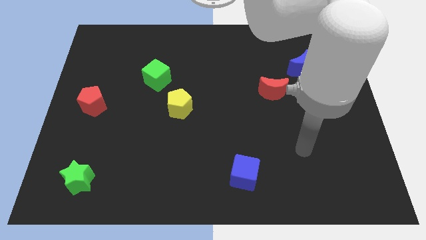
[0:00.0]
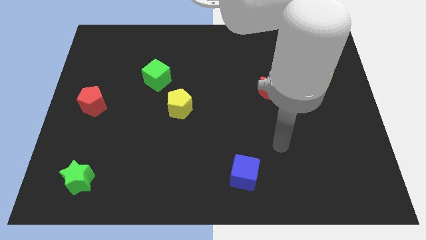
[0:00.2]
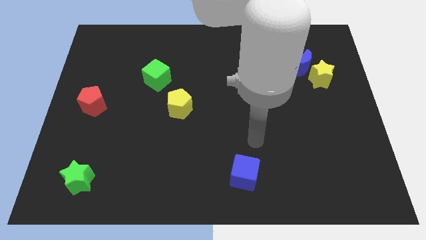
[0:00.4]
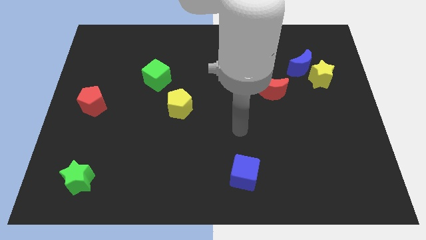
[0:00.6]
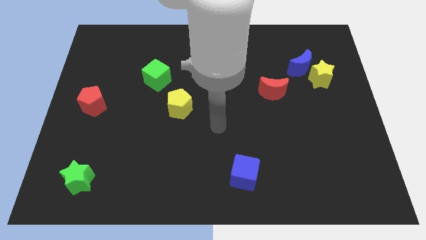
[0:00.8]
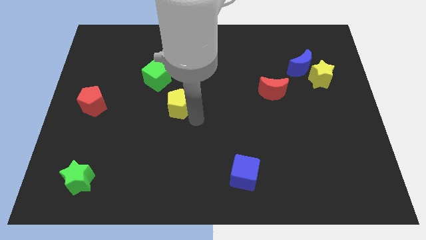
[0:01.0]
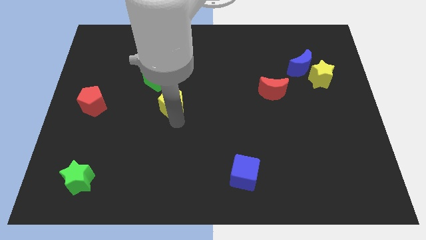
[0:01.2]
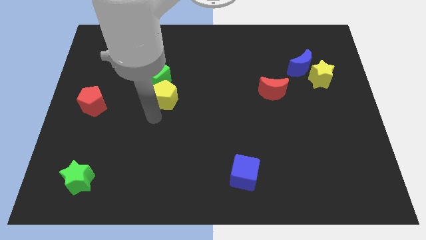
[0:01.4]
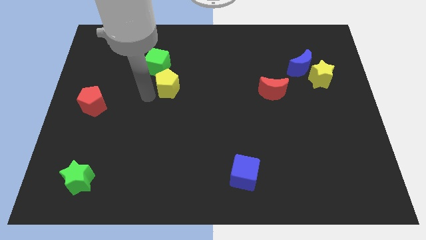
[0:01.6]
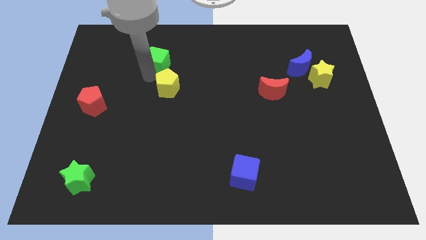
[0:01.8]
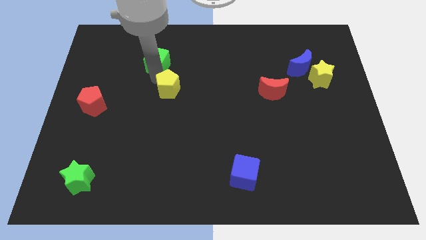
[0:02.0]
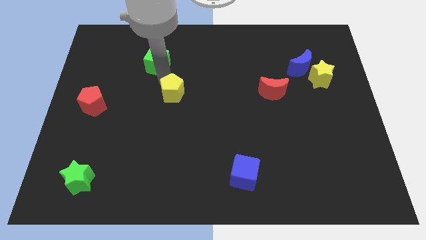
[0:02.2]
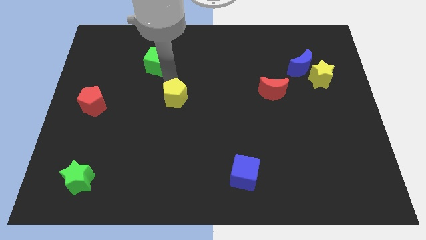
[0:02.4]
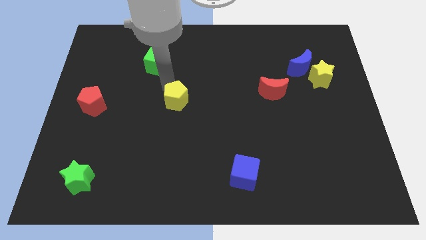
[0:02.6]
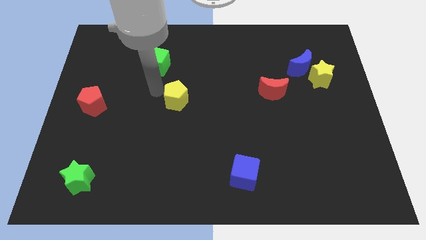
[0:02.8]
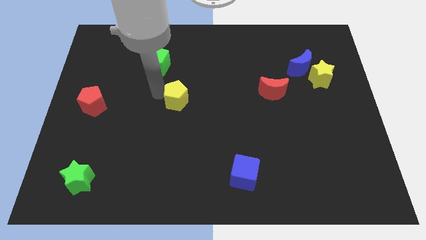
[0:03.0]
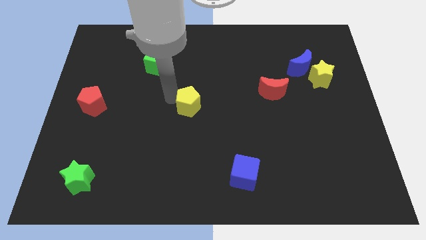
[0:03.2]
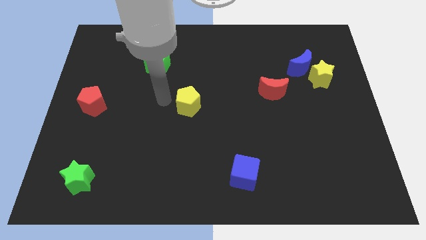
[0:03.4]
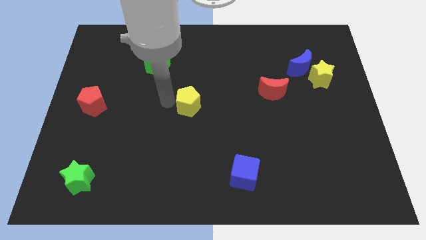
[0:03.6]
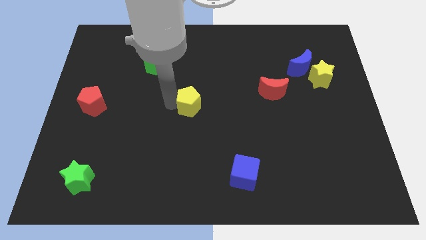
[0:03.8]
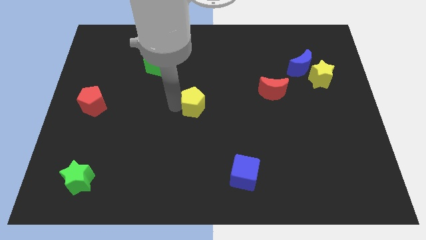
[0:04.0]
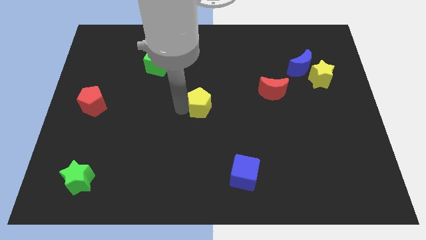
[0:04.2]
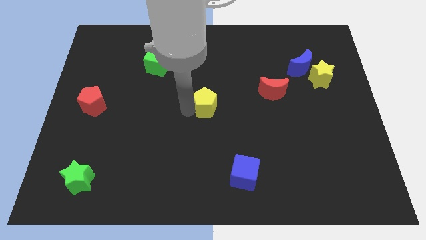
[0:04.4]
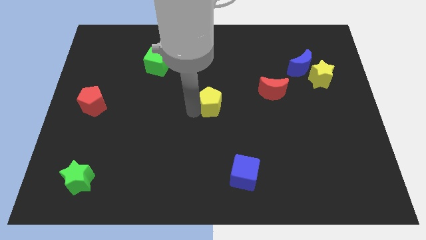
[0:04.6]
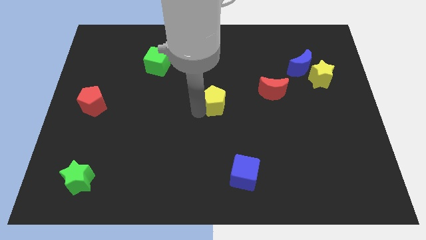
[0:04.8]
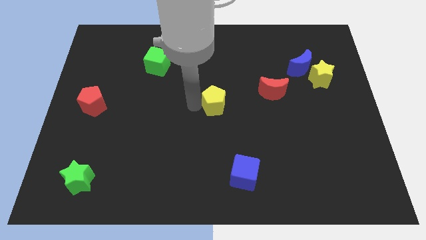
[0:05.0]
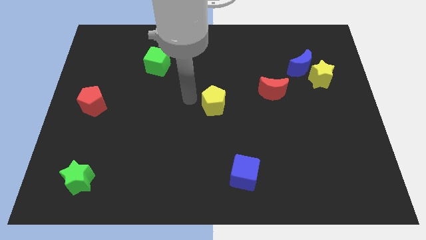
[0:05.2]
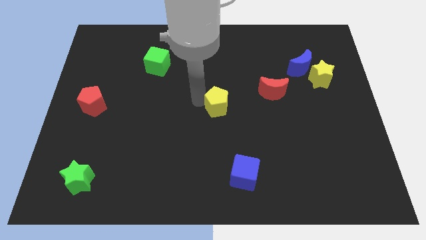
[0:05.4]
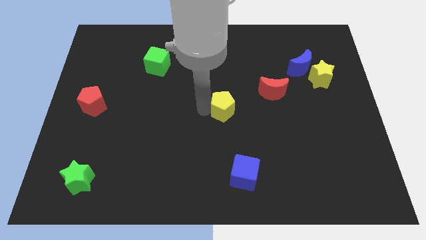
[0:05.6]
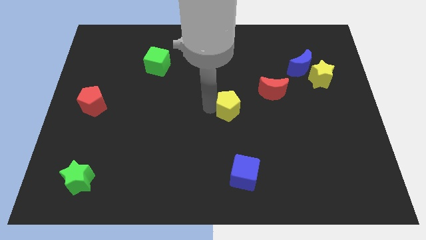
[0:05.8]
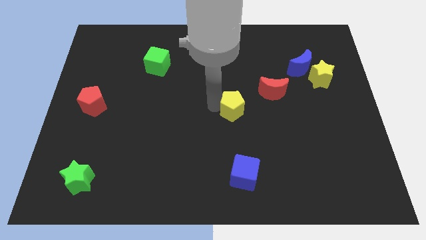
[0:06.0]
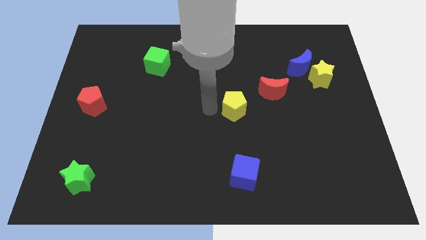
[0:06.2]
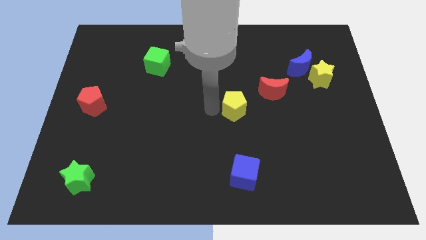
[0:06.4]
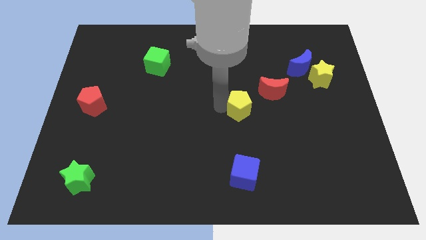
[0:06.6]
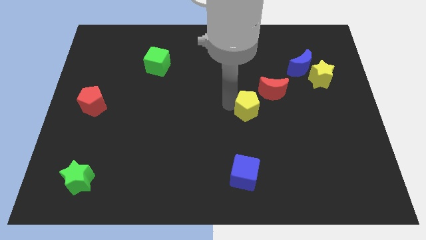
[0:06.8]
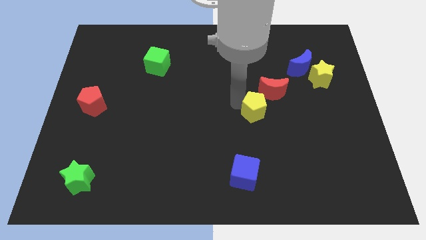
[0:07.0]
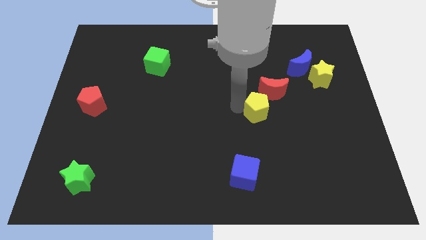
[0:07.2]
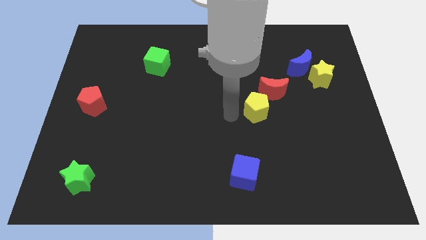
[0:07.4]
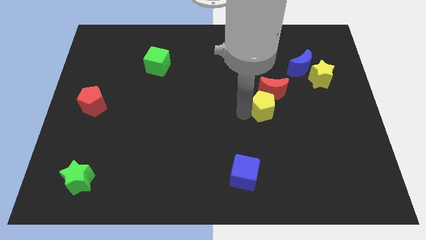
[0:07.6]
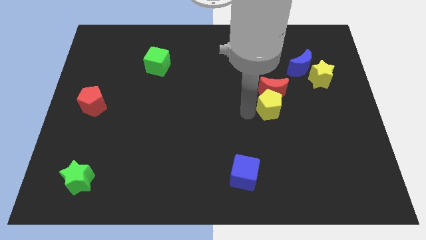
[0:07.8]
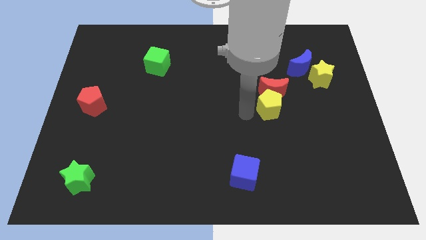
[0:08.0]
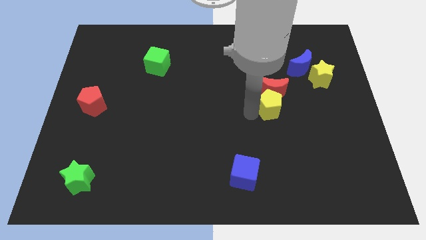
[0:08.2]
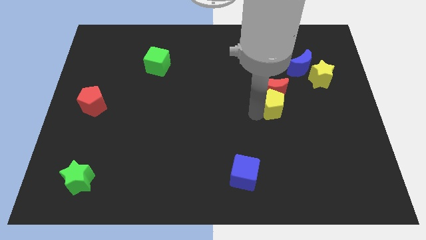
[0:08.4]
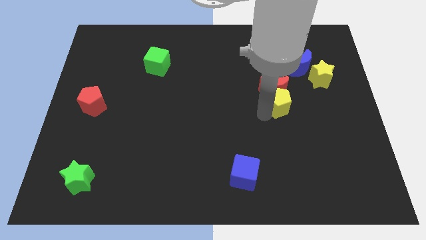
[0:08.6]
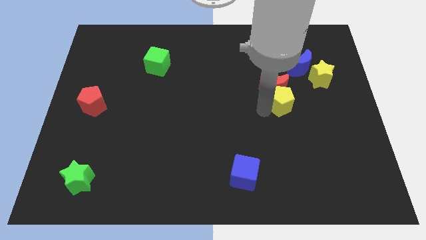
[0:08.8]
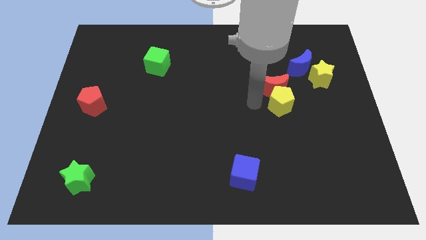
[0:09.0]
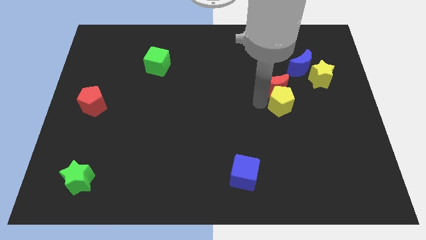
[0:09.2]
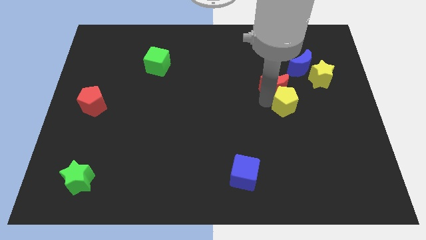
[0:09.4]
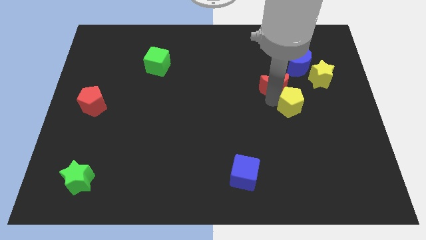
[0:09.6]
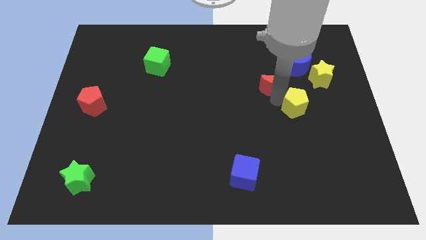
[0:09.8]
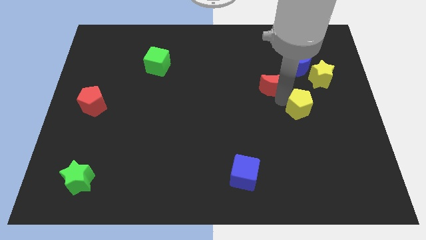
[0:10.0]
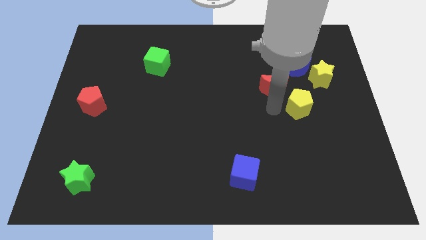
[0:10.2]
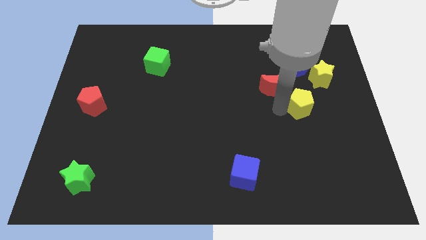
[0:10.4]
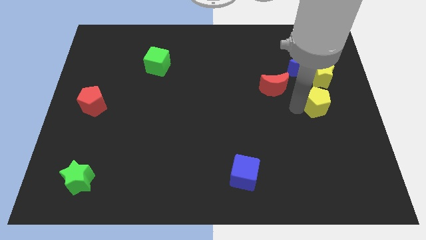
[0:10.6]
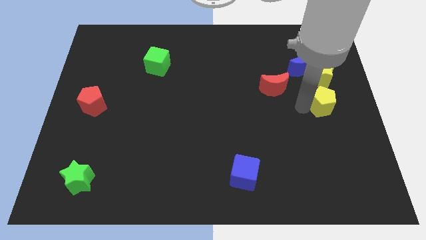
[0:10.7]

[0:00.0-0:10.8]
put the yellow pentagon to the right side of the board

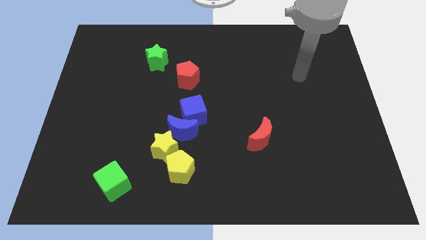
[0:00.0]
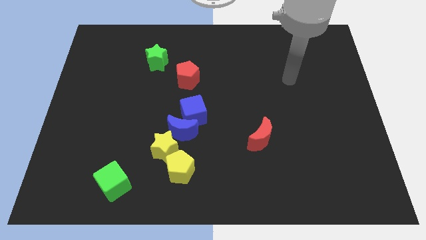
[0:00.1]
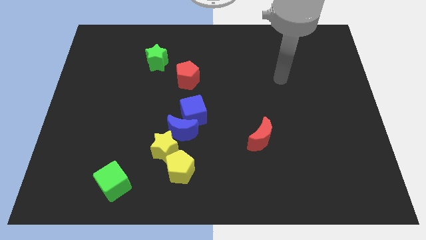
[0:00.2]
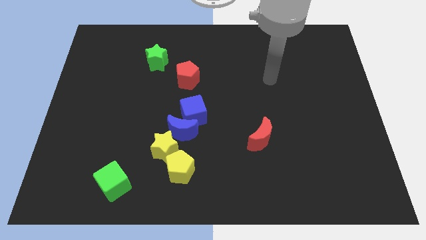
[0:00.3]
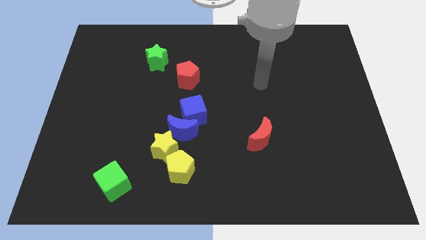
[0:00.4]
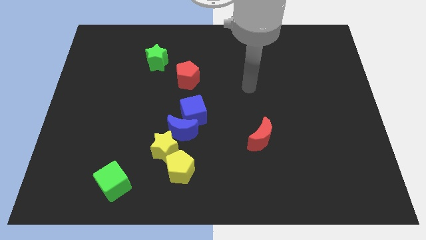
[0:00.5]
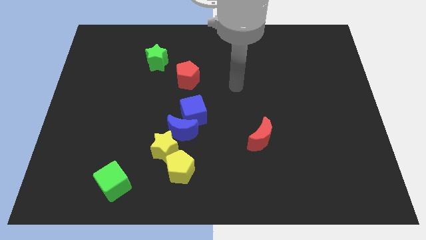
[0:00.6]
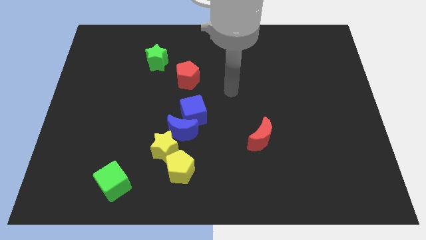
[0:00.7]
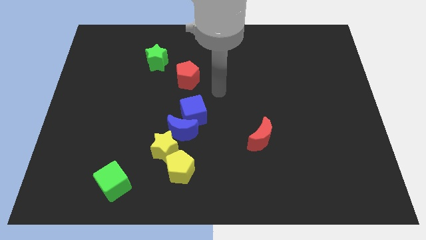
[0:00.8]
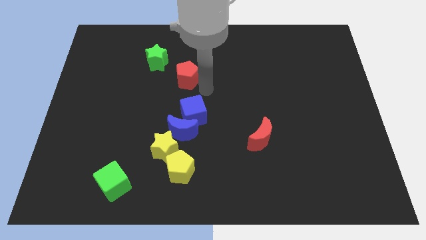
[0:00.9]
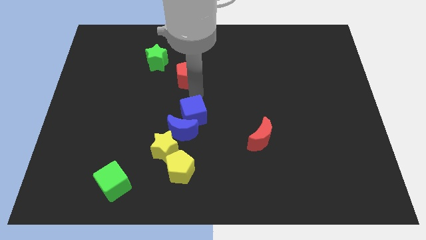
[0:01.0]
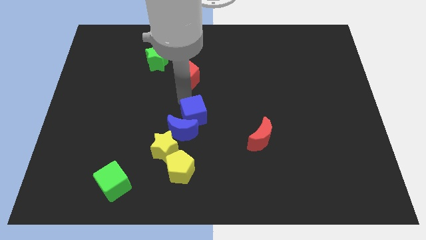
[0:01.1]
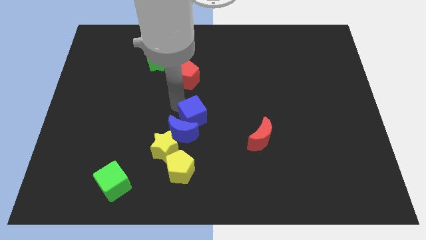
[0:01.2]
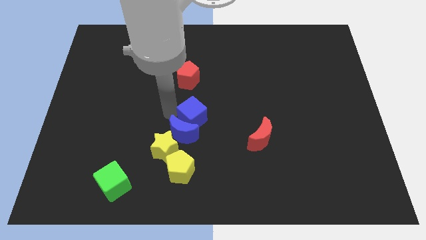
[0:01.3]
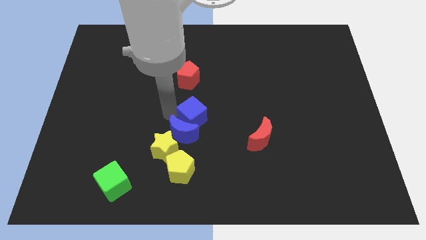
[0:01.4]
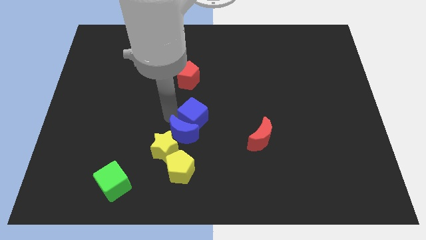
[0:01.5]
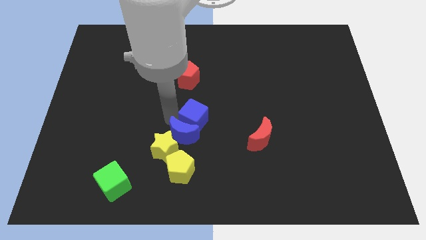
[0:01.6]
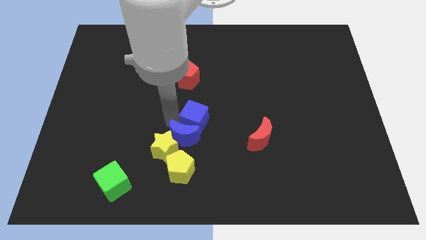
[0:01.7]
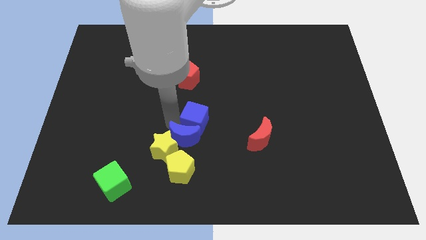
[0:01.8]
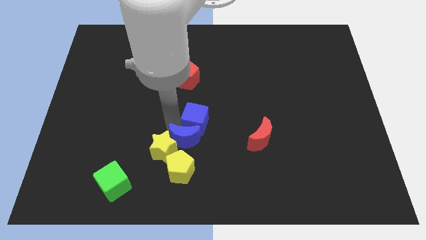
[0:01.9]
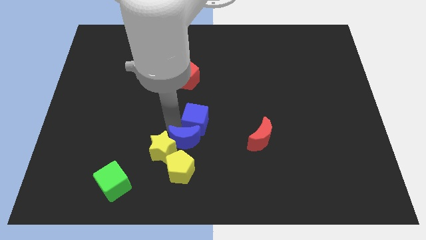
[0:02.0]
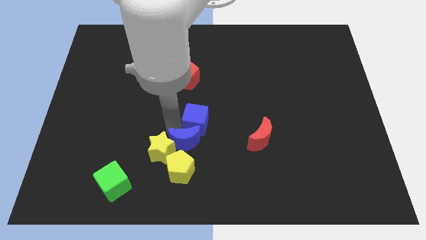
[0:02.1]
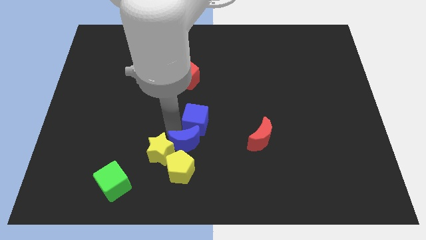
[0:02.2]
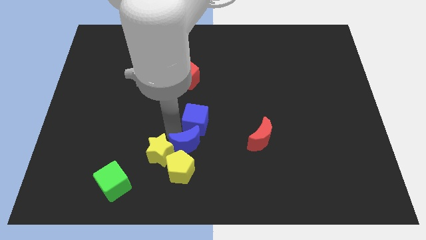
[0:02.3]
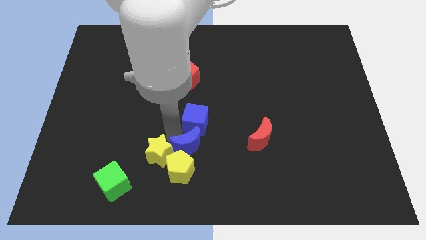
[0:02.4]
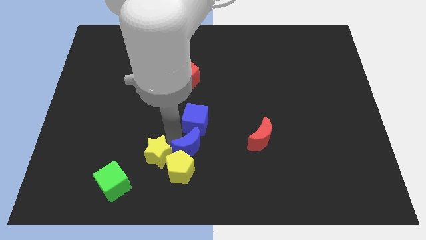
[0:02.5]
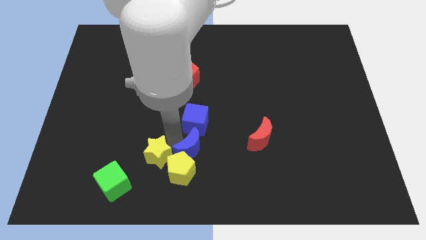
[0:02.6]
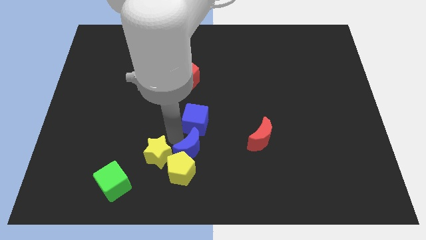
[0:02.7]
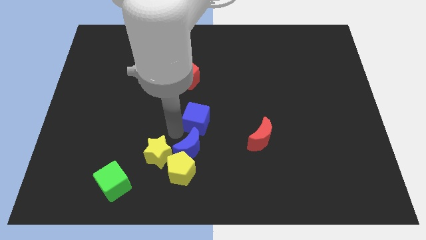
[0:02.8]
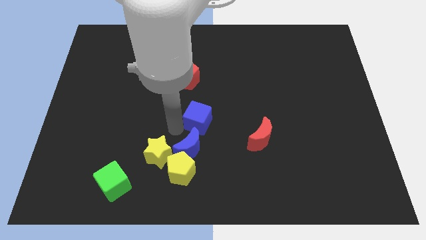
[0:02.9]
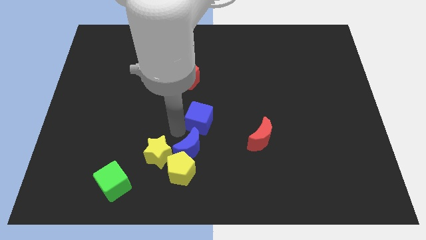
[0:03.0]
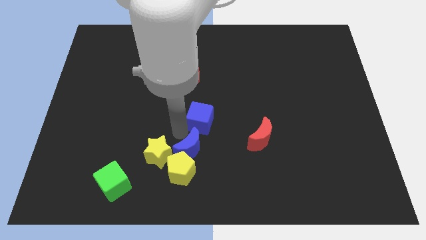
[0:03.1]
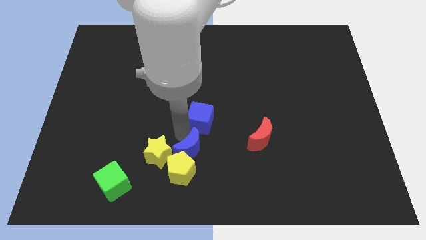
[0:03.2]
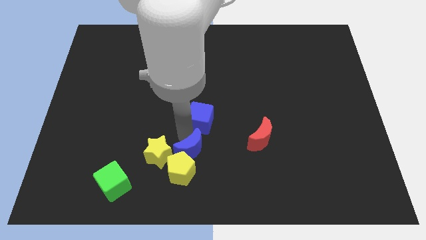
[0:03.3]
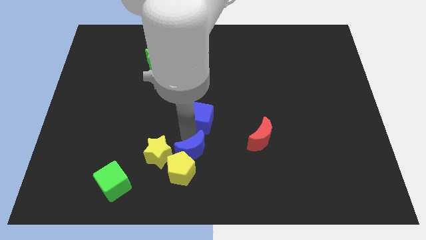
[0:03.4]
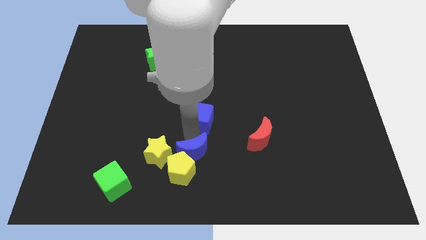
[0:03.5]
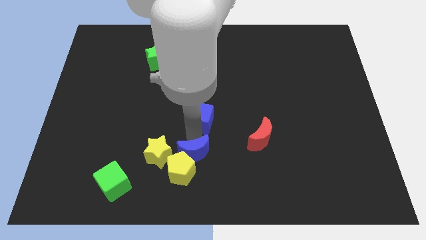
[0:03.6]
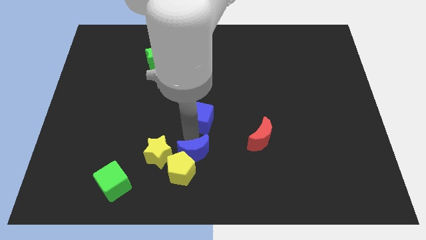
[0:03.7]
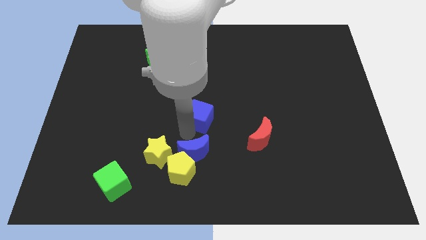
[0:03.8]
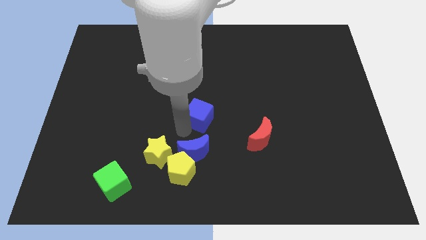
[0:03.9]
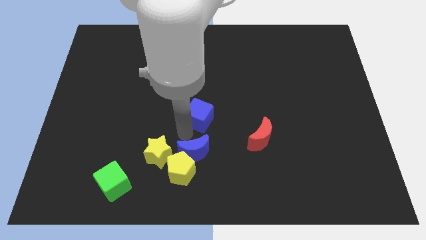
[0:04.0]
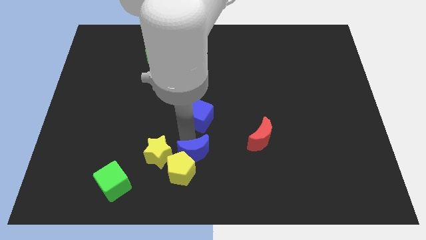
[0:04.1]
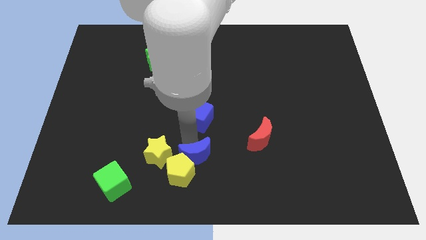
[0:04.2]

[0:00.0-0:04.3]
move the blue moon to the bottom
